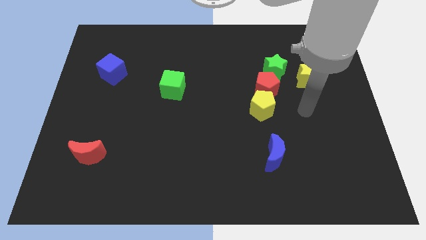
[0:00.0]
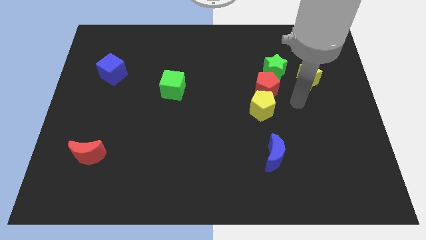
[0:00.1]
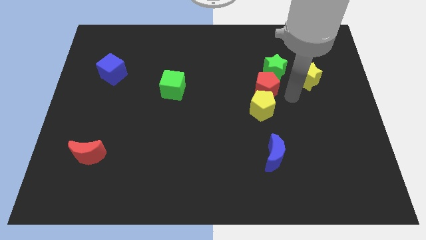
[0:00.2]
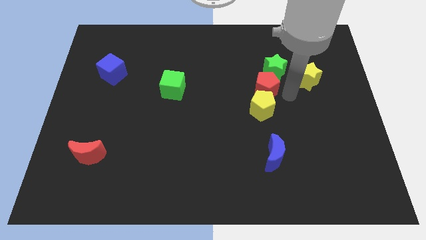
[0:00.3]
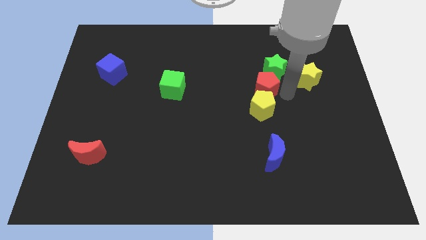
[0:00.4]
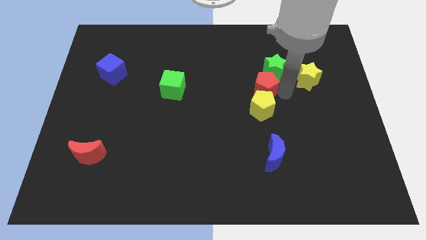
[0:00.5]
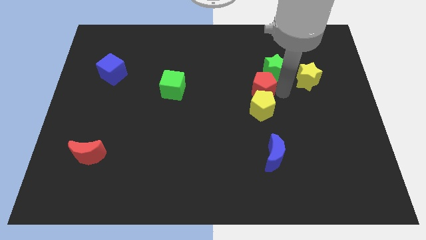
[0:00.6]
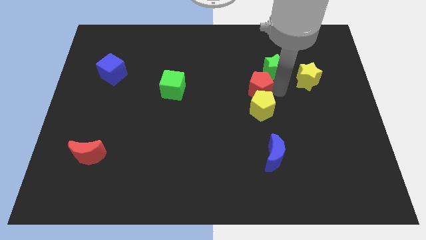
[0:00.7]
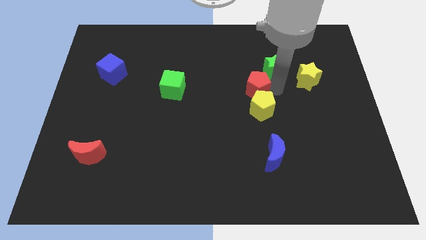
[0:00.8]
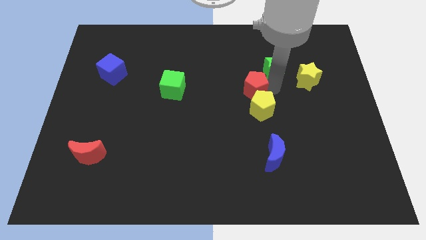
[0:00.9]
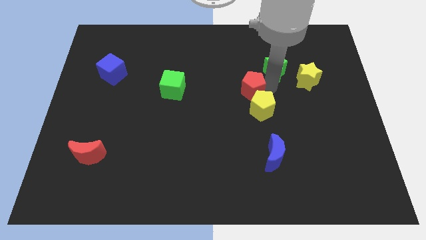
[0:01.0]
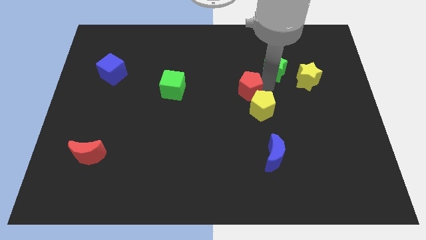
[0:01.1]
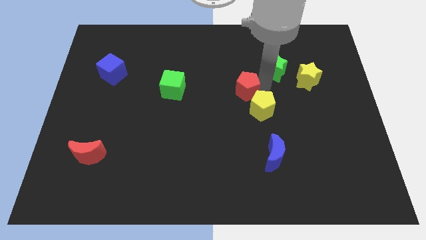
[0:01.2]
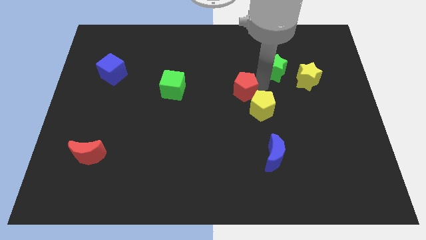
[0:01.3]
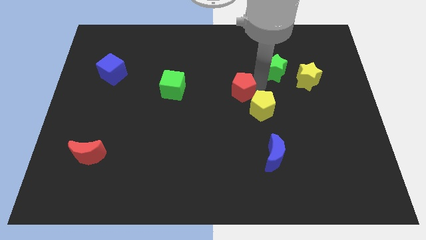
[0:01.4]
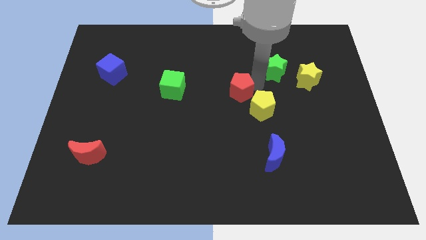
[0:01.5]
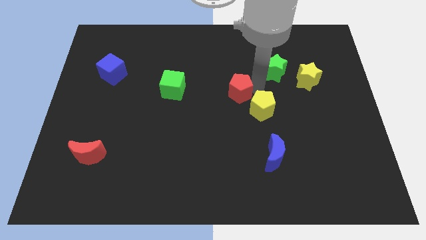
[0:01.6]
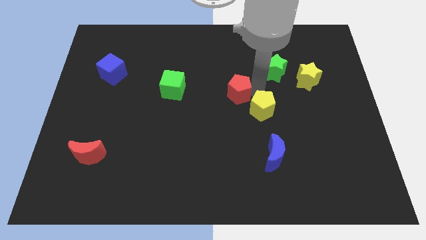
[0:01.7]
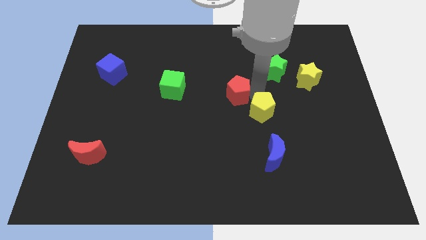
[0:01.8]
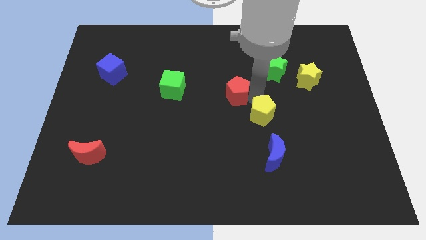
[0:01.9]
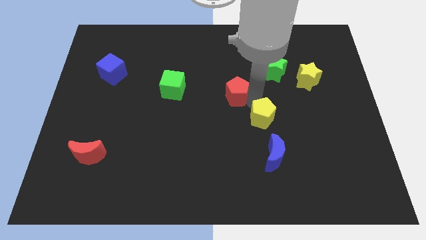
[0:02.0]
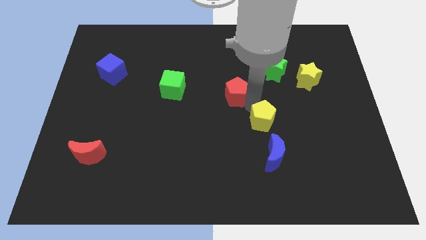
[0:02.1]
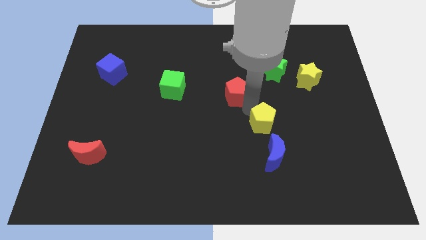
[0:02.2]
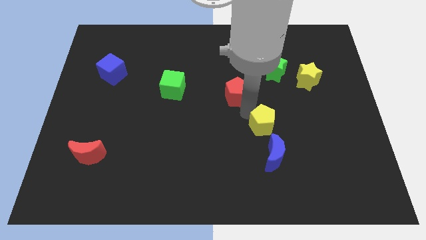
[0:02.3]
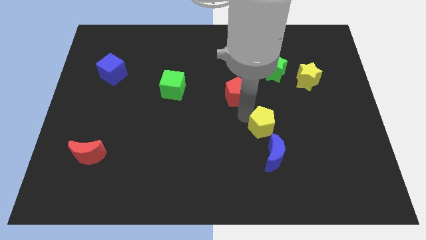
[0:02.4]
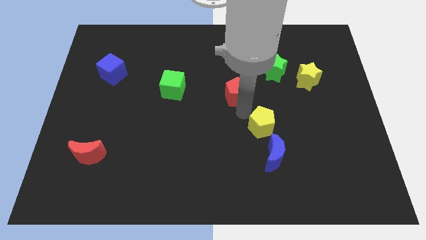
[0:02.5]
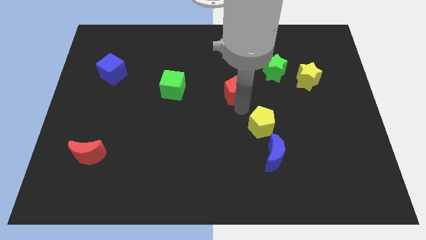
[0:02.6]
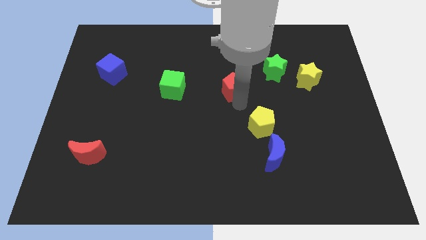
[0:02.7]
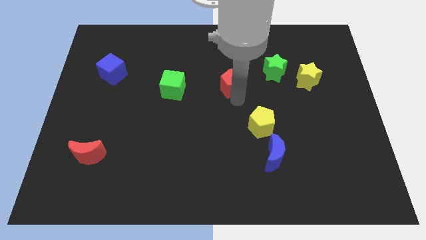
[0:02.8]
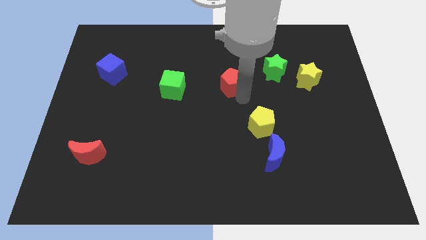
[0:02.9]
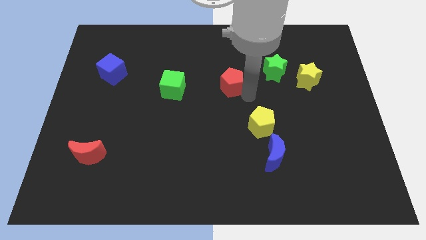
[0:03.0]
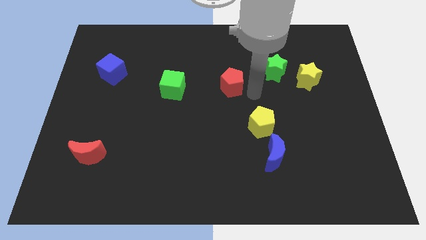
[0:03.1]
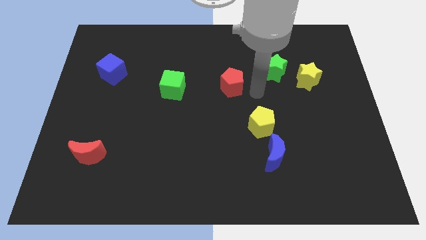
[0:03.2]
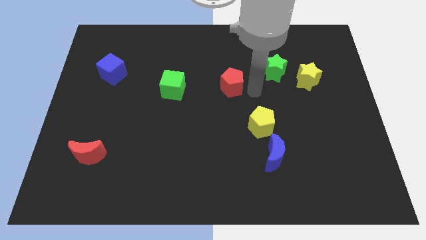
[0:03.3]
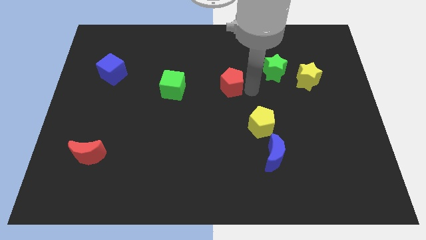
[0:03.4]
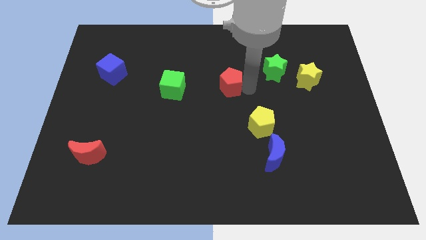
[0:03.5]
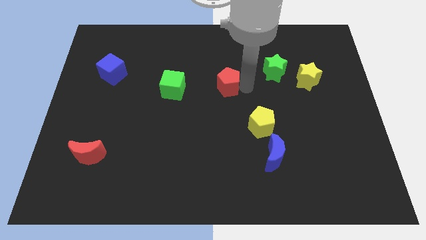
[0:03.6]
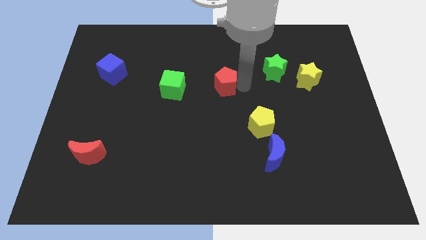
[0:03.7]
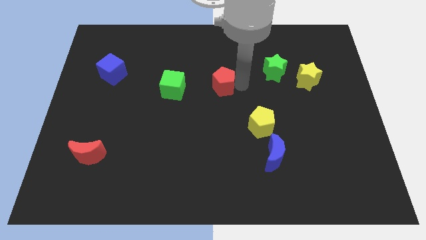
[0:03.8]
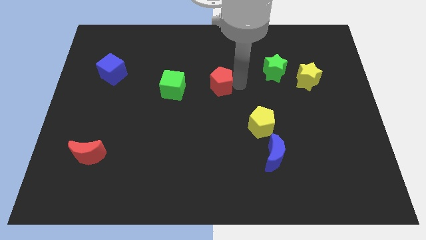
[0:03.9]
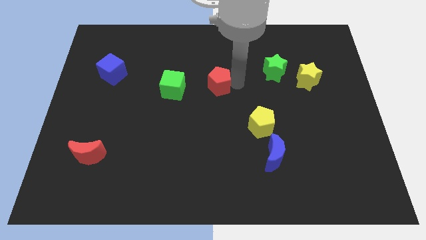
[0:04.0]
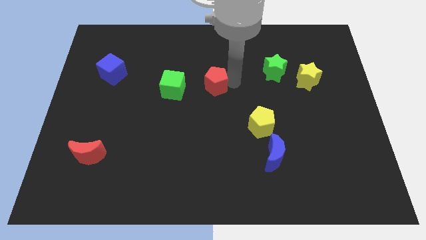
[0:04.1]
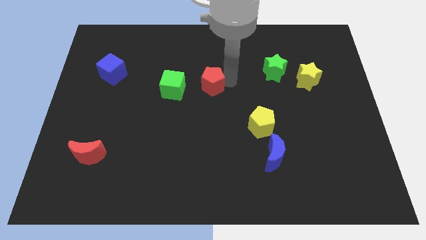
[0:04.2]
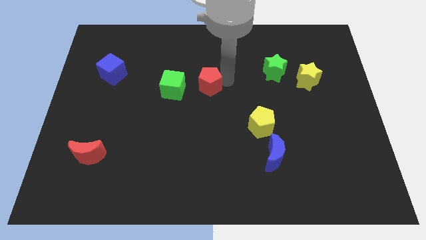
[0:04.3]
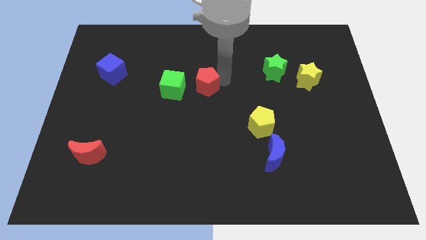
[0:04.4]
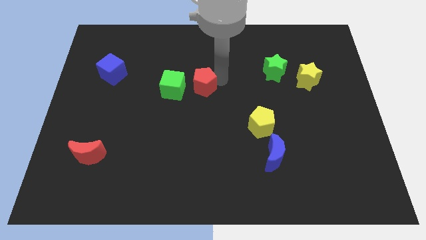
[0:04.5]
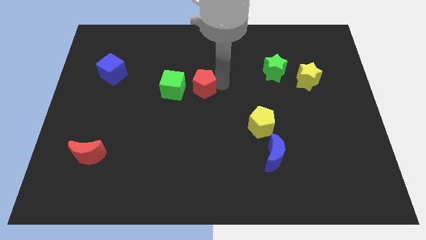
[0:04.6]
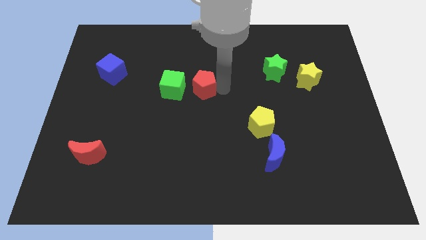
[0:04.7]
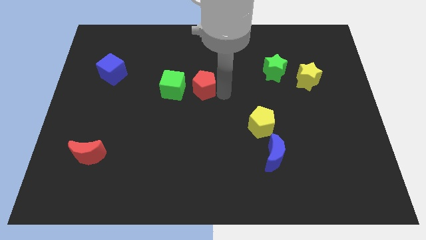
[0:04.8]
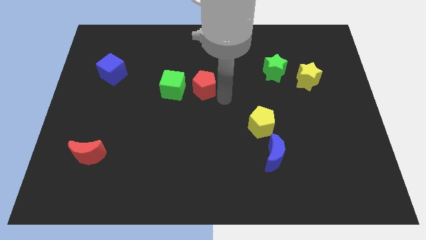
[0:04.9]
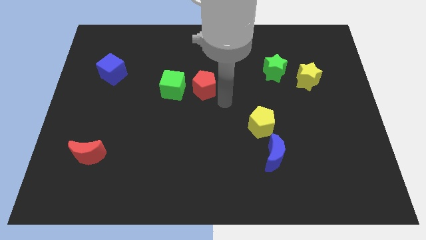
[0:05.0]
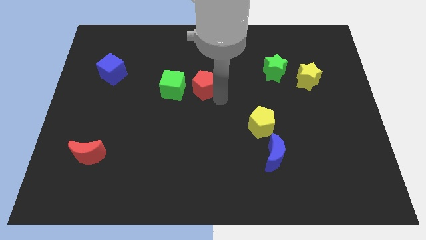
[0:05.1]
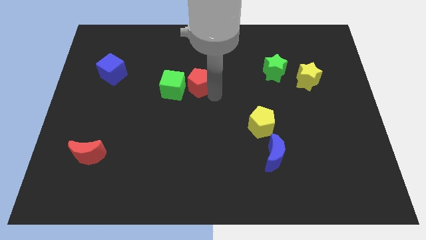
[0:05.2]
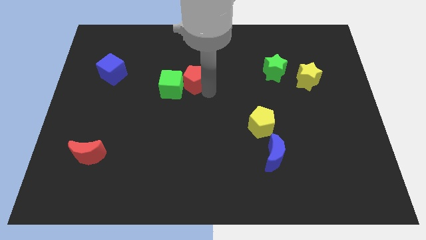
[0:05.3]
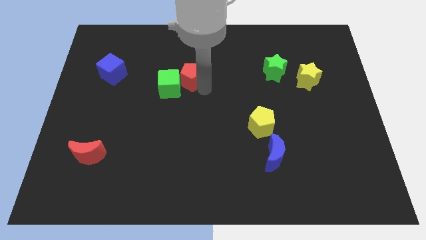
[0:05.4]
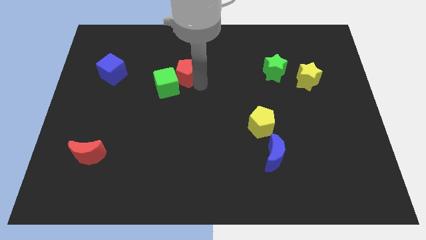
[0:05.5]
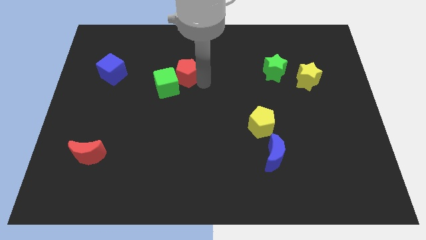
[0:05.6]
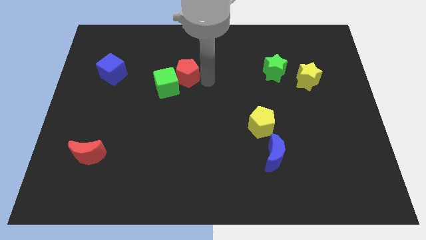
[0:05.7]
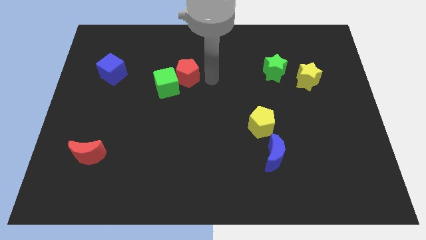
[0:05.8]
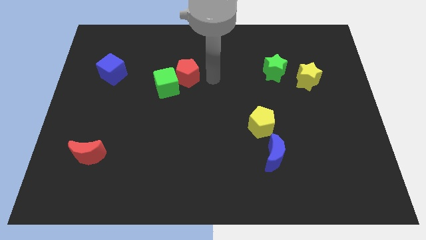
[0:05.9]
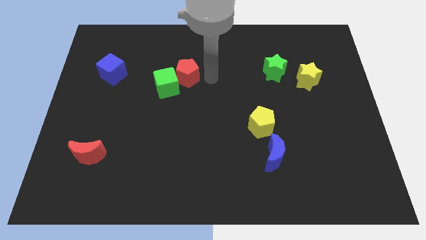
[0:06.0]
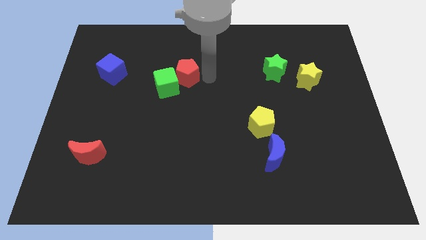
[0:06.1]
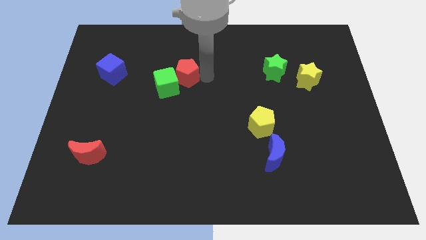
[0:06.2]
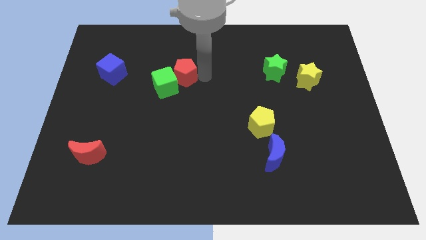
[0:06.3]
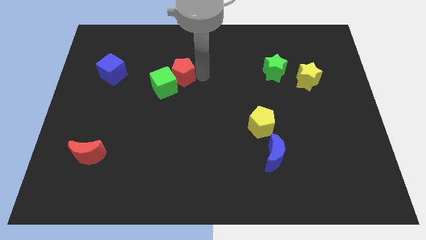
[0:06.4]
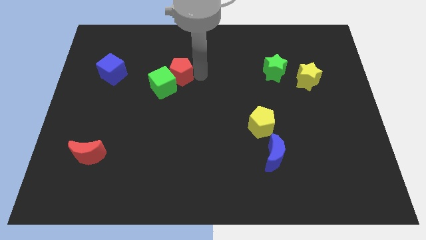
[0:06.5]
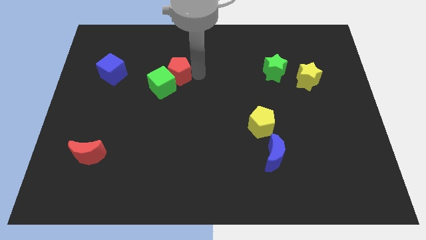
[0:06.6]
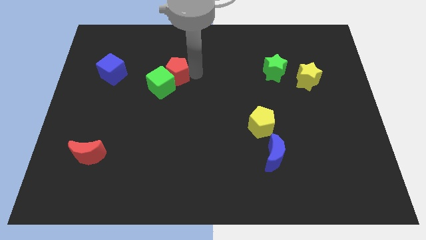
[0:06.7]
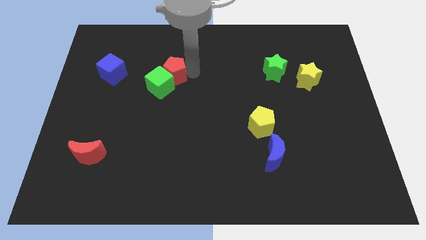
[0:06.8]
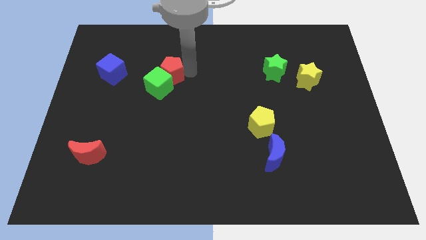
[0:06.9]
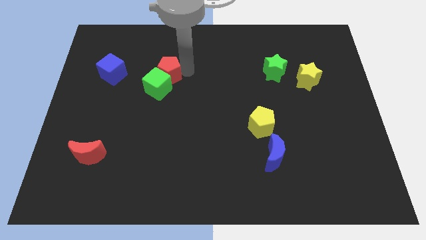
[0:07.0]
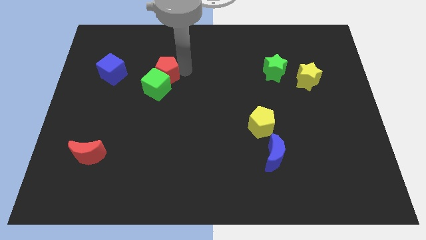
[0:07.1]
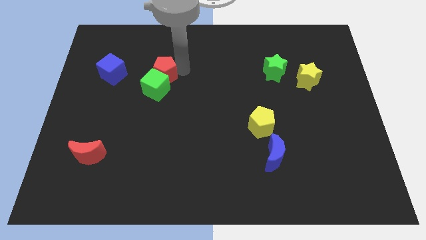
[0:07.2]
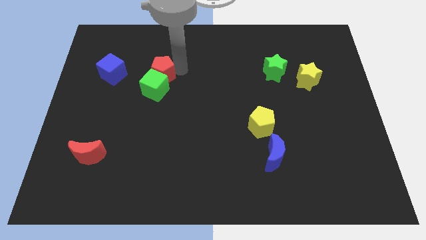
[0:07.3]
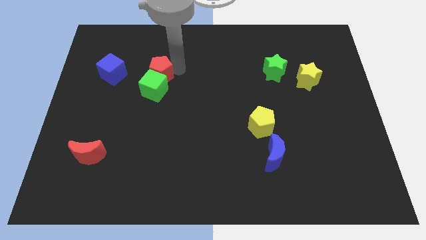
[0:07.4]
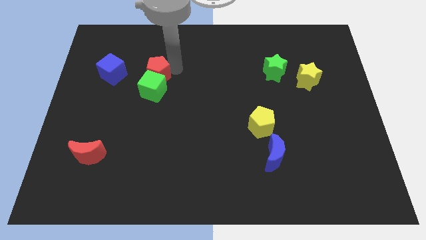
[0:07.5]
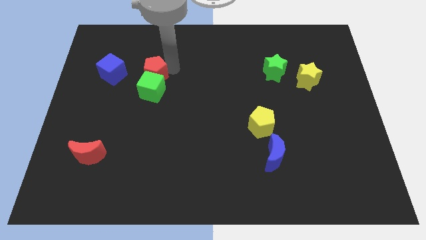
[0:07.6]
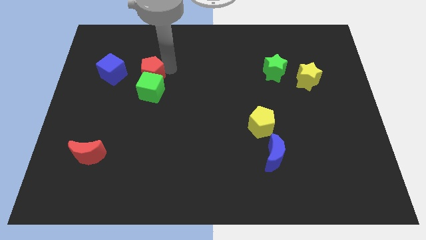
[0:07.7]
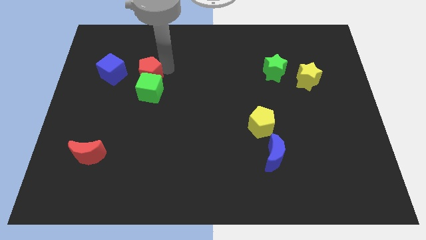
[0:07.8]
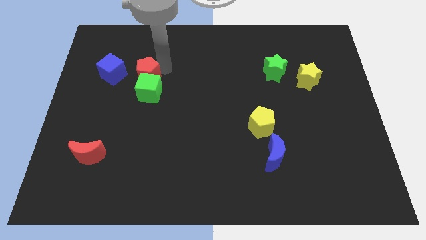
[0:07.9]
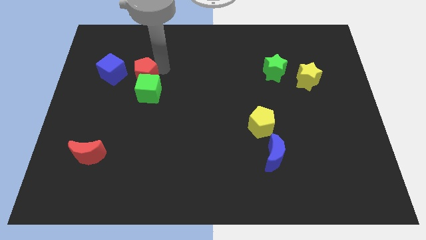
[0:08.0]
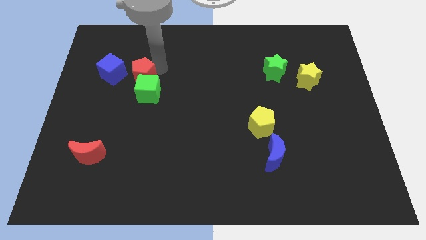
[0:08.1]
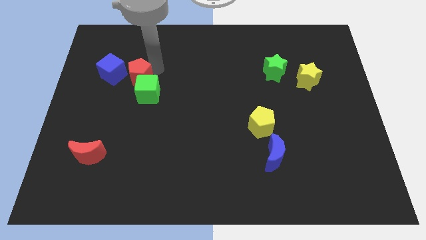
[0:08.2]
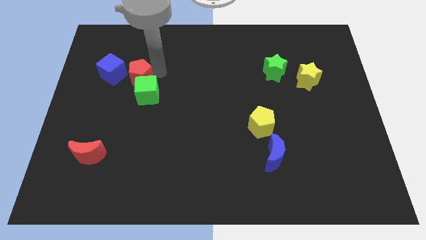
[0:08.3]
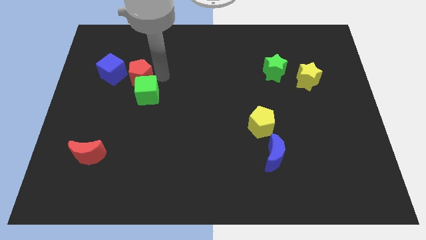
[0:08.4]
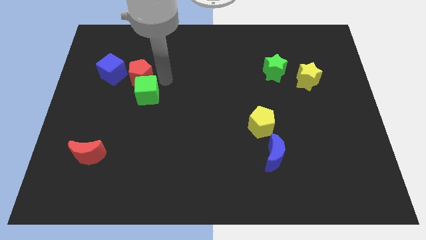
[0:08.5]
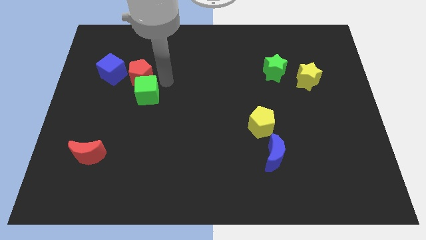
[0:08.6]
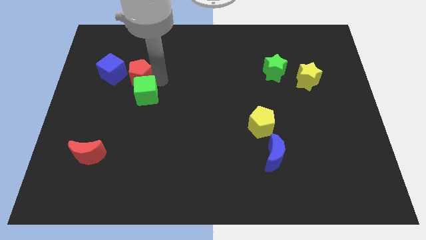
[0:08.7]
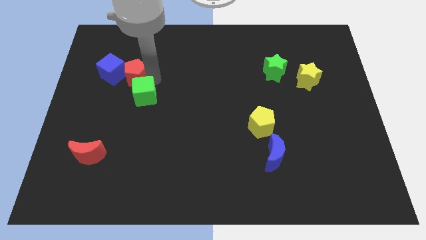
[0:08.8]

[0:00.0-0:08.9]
put the red pentagon towards the blue cube
